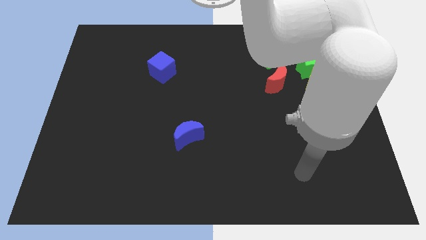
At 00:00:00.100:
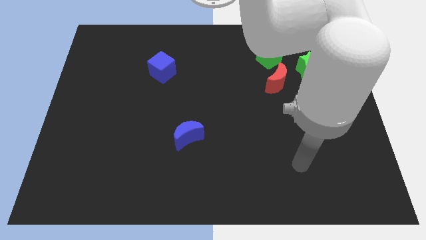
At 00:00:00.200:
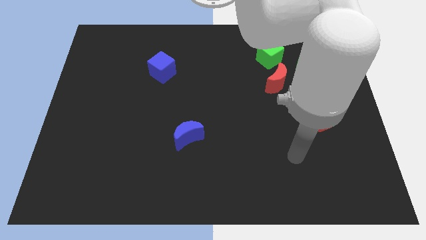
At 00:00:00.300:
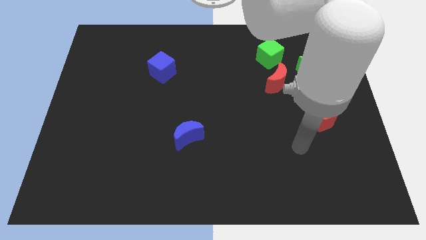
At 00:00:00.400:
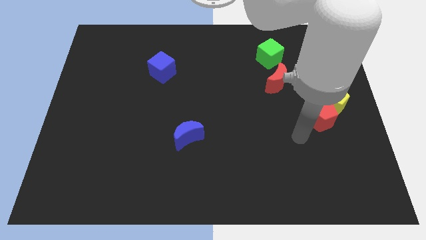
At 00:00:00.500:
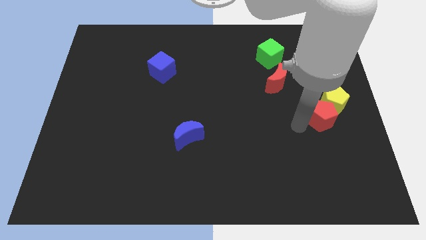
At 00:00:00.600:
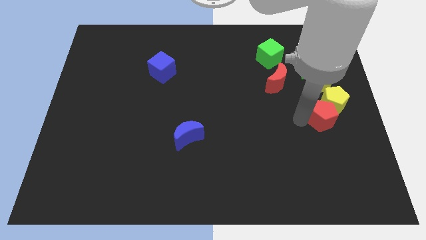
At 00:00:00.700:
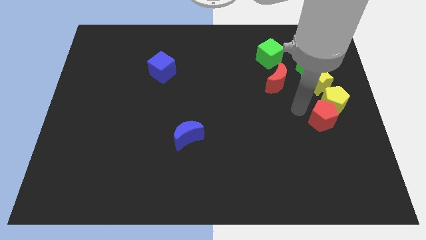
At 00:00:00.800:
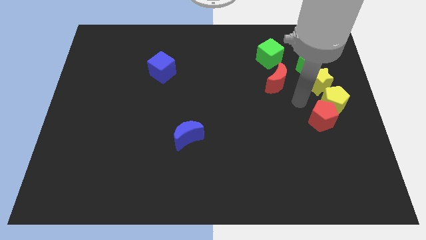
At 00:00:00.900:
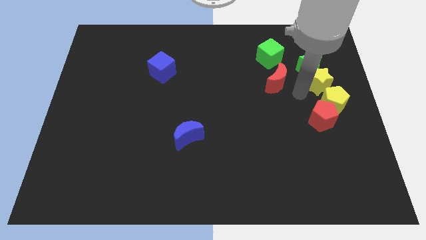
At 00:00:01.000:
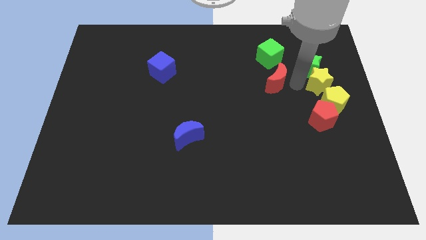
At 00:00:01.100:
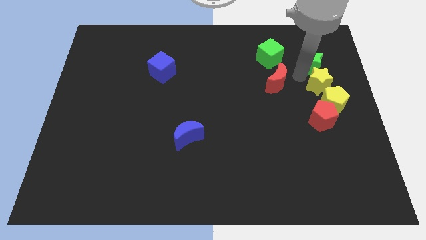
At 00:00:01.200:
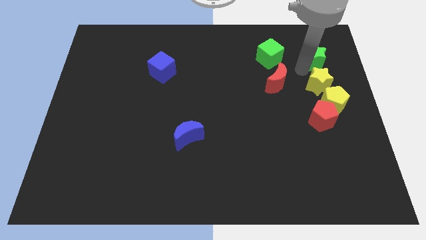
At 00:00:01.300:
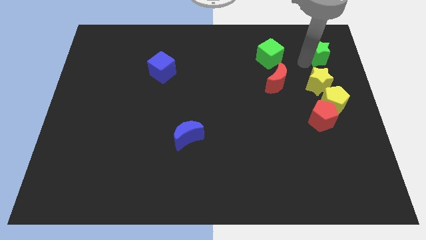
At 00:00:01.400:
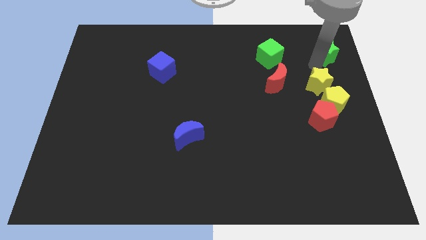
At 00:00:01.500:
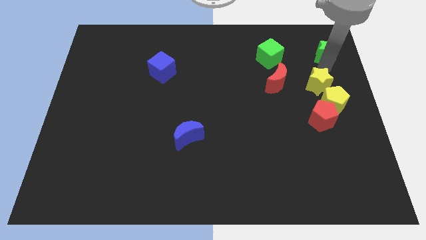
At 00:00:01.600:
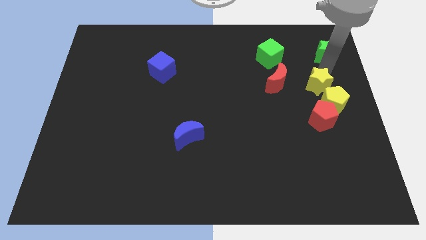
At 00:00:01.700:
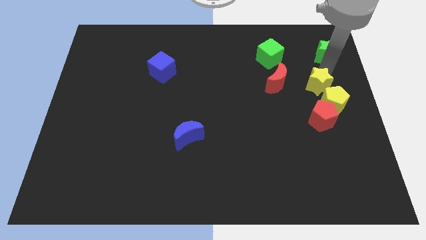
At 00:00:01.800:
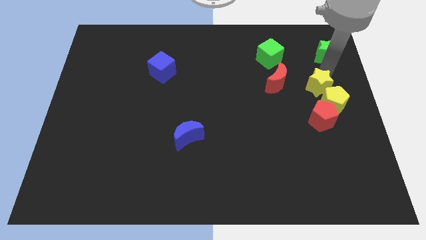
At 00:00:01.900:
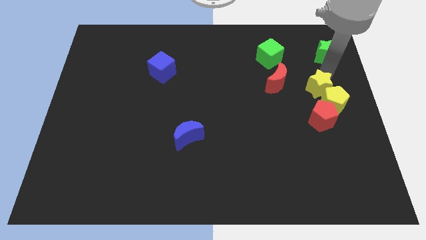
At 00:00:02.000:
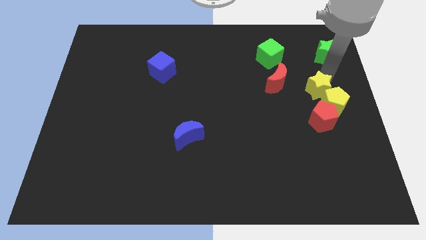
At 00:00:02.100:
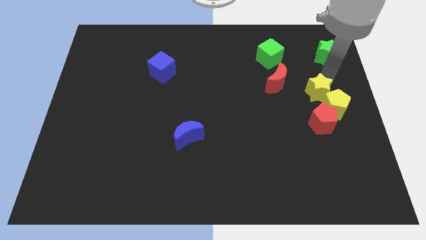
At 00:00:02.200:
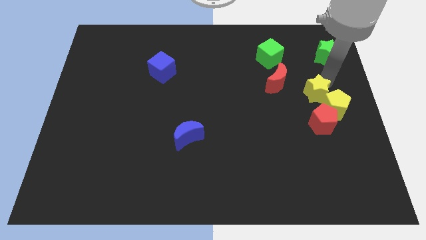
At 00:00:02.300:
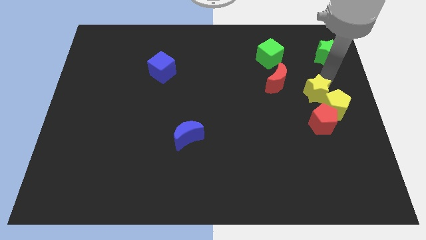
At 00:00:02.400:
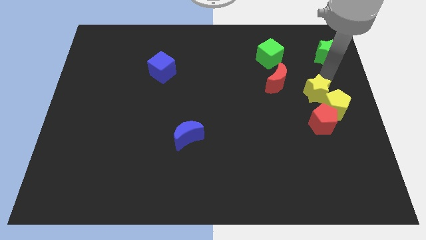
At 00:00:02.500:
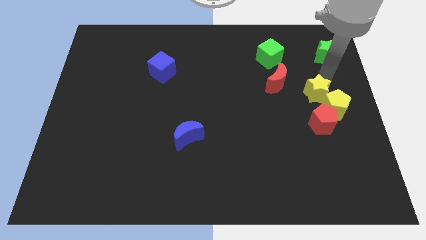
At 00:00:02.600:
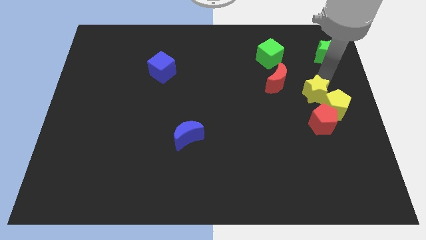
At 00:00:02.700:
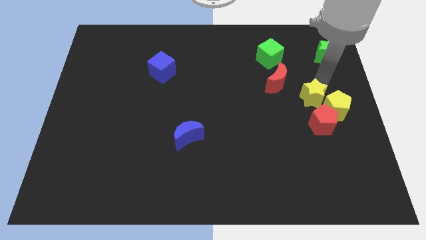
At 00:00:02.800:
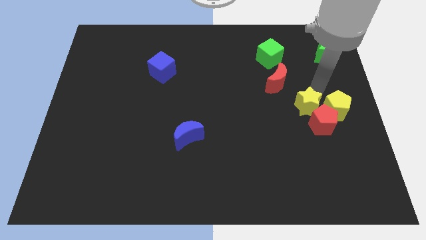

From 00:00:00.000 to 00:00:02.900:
move the yellow star downwards and to the left a little

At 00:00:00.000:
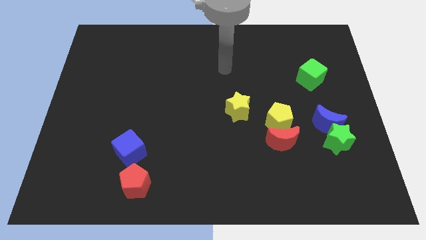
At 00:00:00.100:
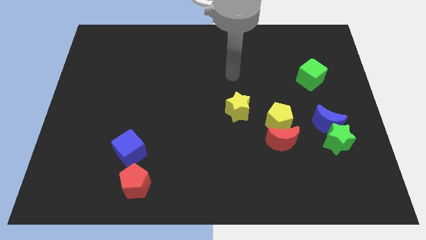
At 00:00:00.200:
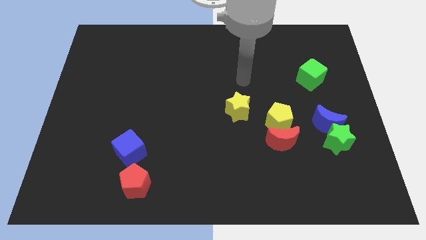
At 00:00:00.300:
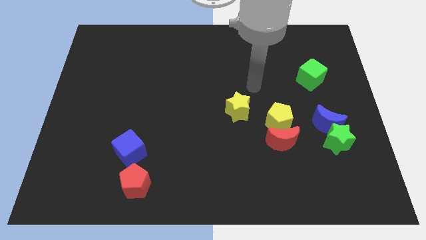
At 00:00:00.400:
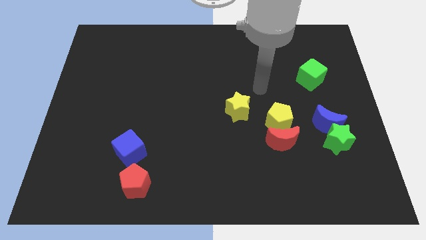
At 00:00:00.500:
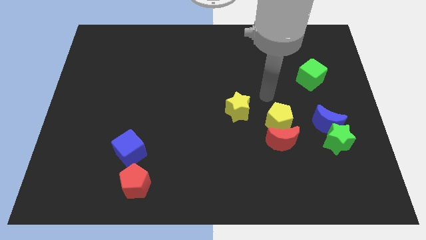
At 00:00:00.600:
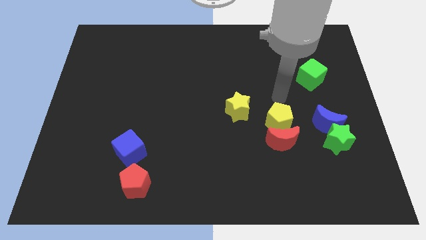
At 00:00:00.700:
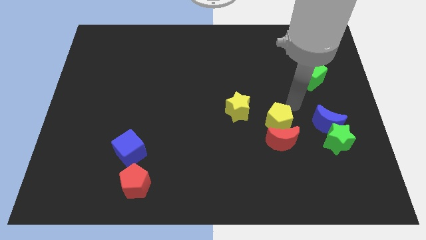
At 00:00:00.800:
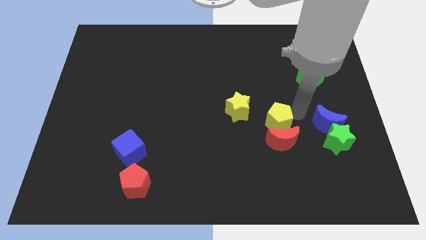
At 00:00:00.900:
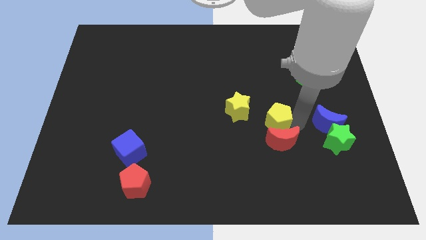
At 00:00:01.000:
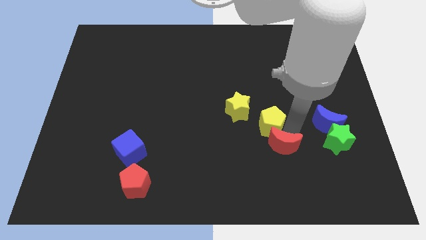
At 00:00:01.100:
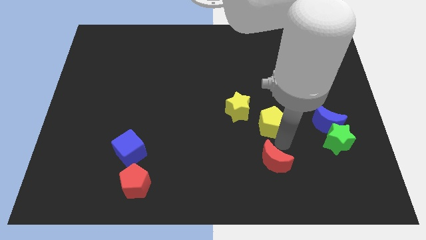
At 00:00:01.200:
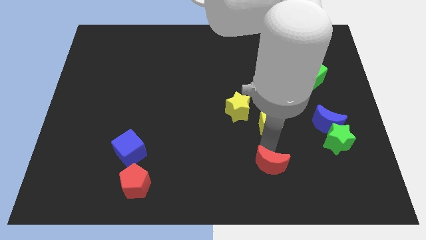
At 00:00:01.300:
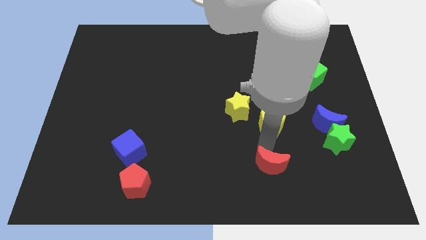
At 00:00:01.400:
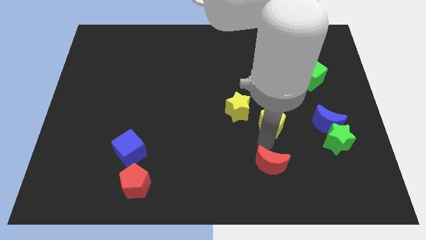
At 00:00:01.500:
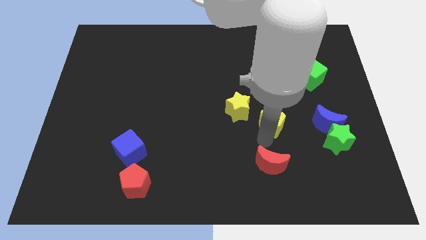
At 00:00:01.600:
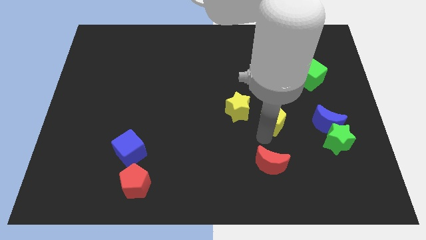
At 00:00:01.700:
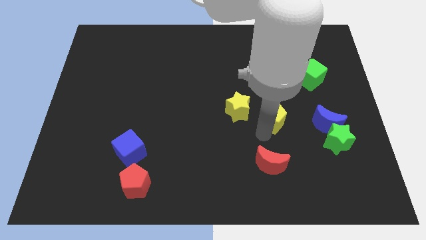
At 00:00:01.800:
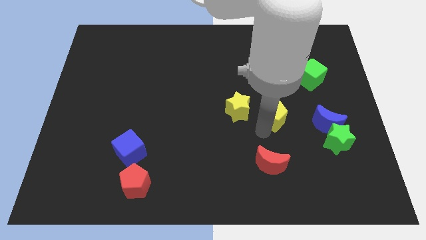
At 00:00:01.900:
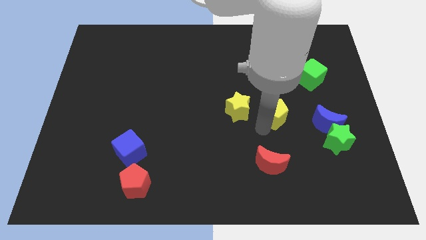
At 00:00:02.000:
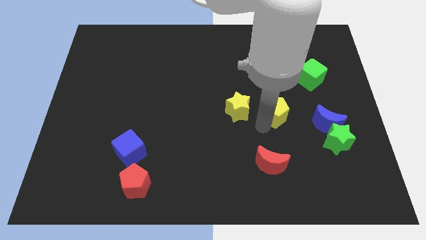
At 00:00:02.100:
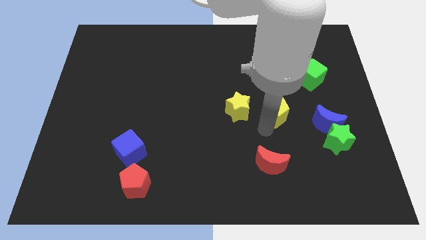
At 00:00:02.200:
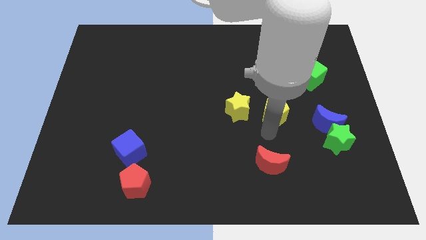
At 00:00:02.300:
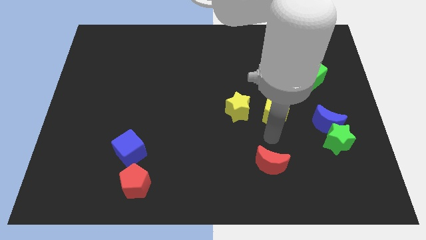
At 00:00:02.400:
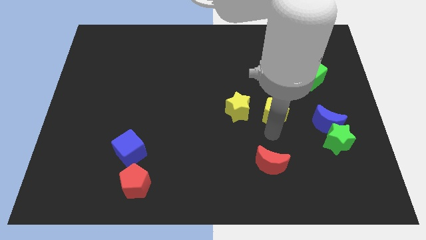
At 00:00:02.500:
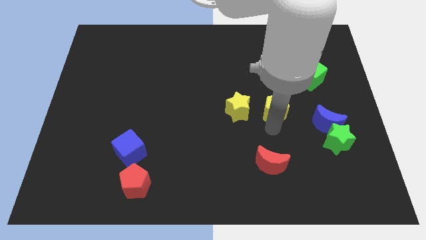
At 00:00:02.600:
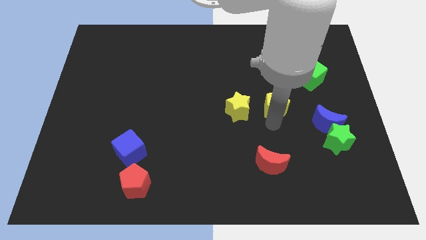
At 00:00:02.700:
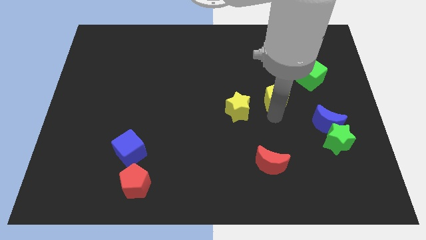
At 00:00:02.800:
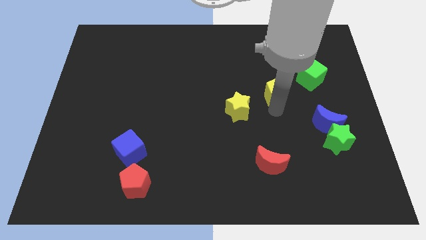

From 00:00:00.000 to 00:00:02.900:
move the yellow pentagon upwards slightly

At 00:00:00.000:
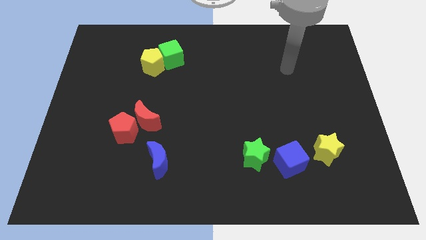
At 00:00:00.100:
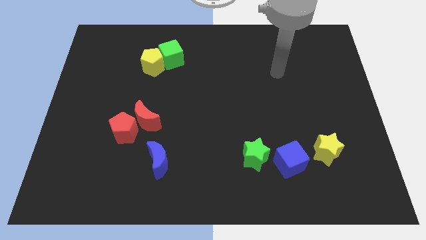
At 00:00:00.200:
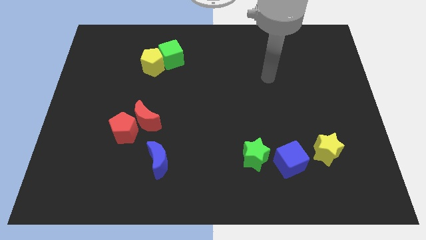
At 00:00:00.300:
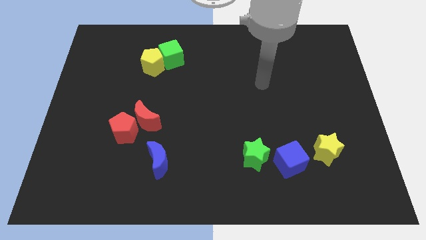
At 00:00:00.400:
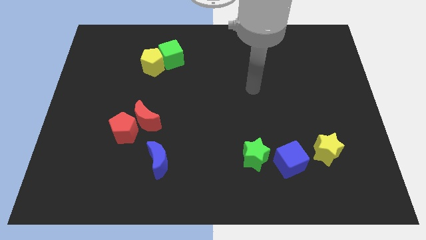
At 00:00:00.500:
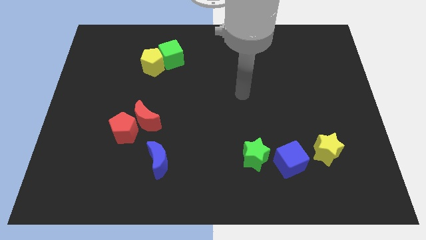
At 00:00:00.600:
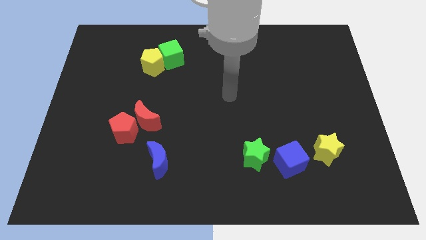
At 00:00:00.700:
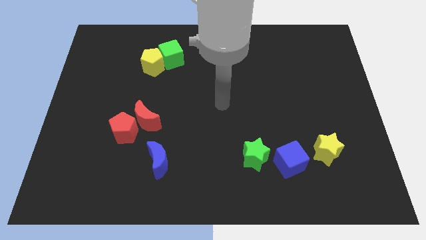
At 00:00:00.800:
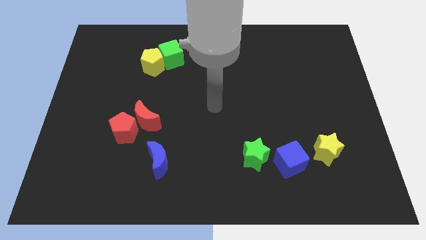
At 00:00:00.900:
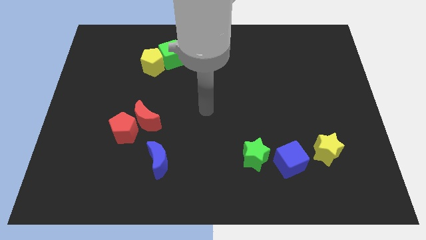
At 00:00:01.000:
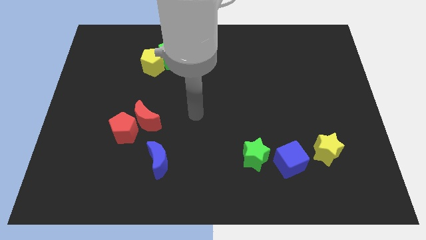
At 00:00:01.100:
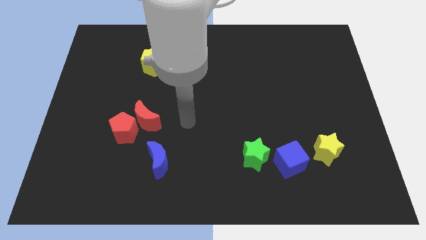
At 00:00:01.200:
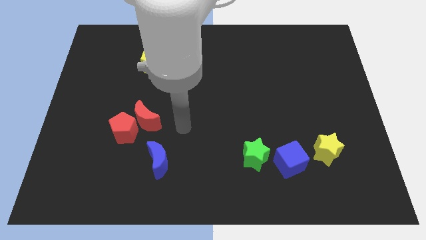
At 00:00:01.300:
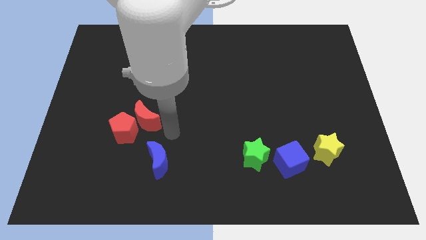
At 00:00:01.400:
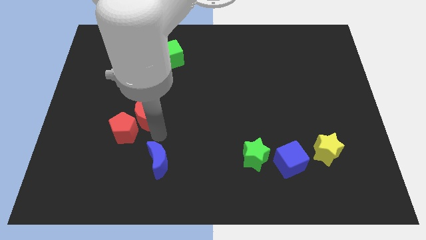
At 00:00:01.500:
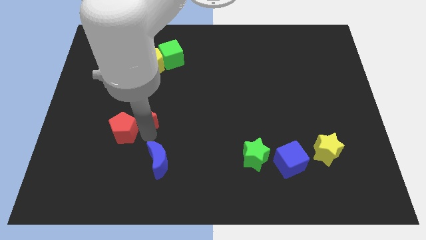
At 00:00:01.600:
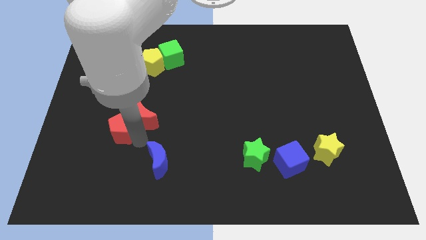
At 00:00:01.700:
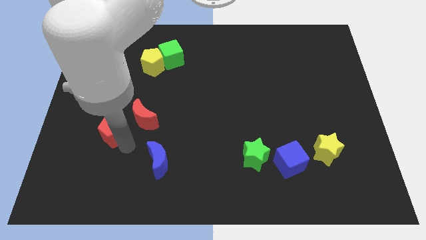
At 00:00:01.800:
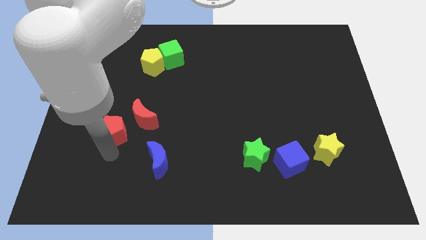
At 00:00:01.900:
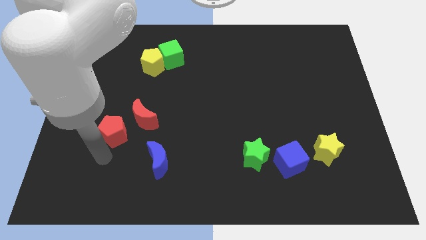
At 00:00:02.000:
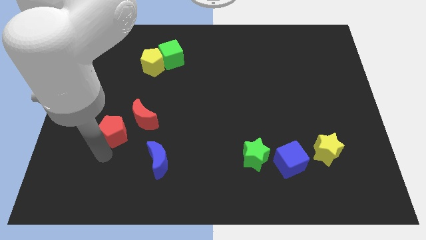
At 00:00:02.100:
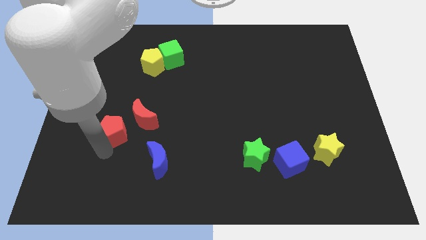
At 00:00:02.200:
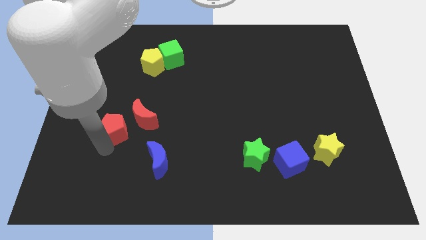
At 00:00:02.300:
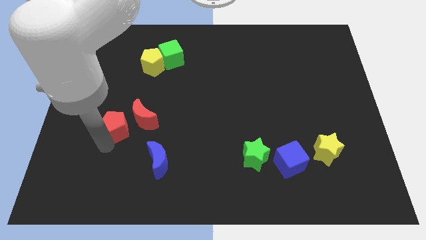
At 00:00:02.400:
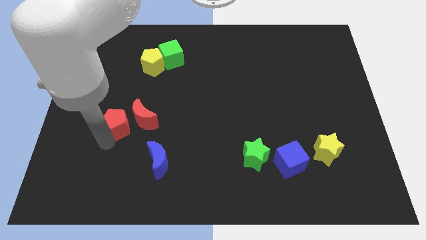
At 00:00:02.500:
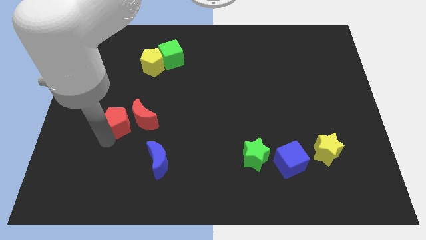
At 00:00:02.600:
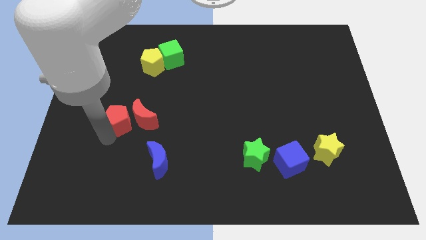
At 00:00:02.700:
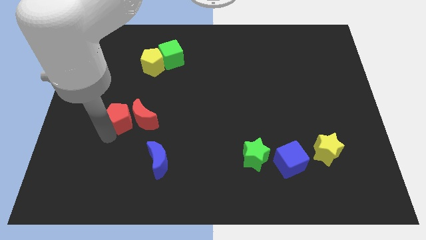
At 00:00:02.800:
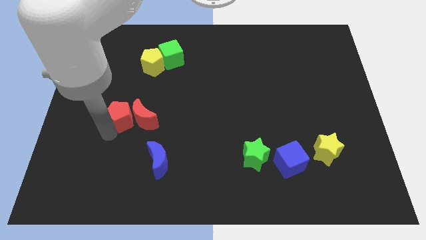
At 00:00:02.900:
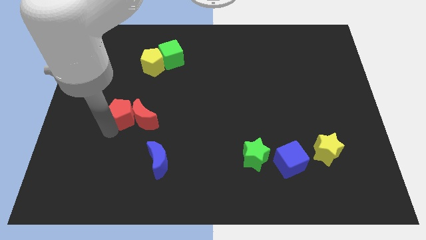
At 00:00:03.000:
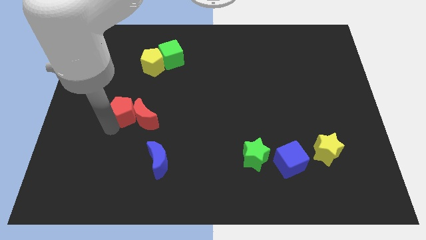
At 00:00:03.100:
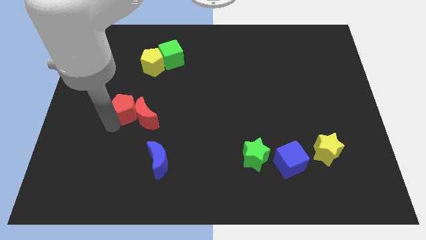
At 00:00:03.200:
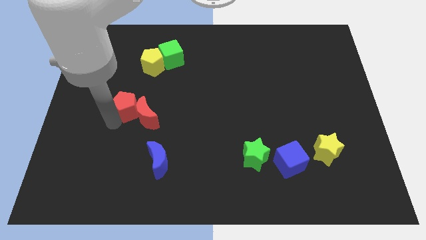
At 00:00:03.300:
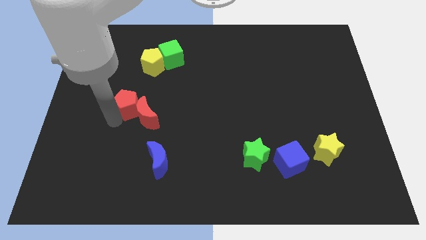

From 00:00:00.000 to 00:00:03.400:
slightly move the red pentagon up
